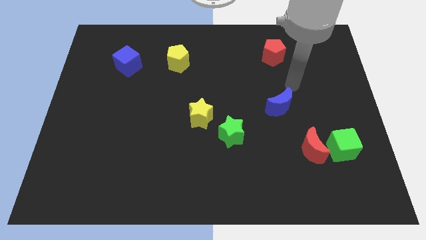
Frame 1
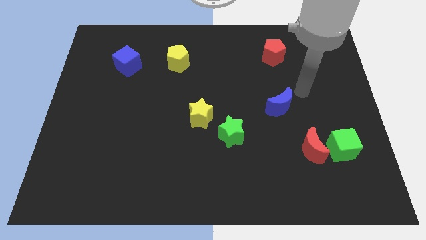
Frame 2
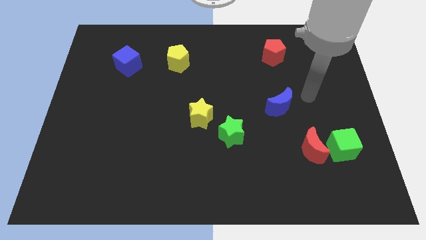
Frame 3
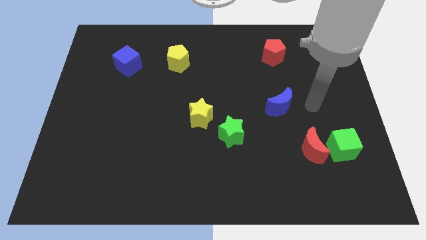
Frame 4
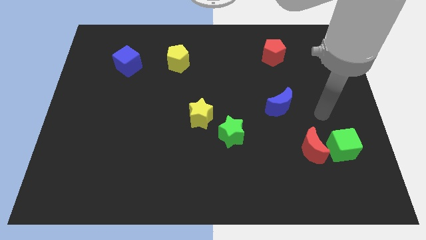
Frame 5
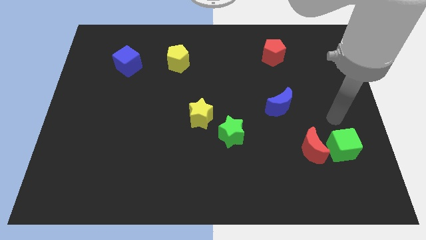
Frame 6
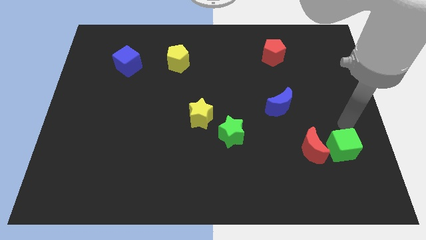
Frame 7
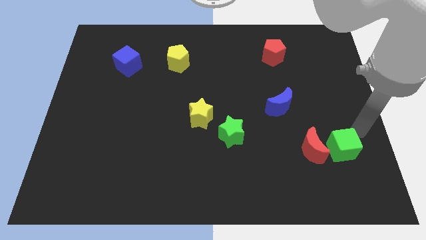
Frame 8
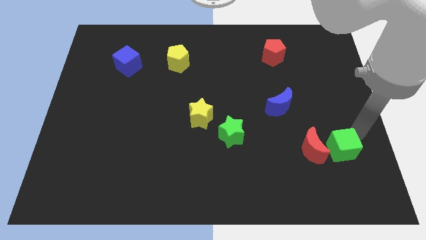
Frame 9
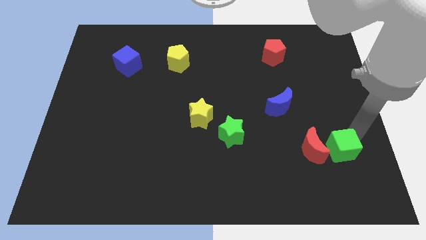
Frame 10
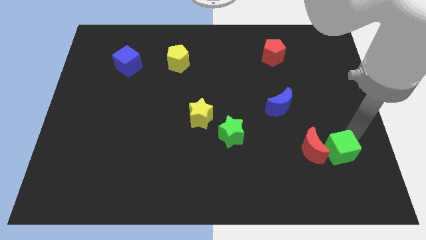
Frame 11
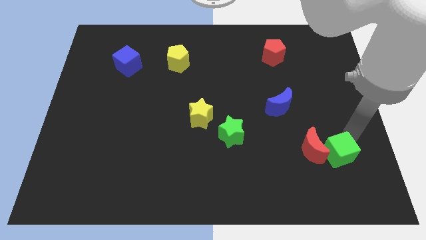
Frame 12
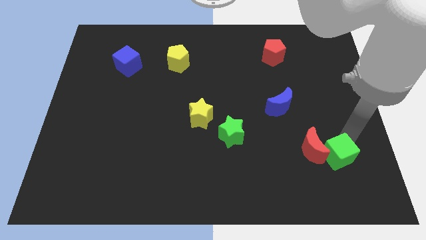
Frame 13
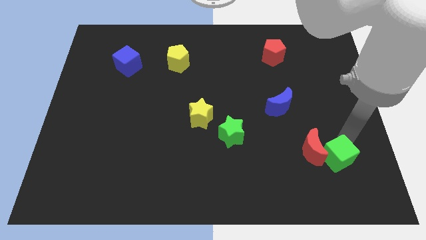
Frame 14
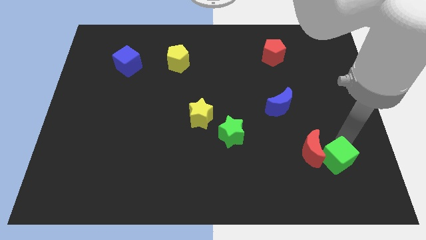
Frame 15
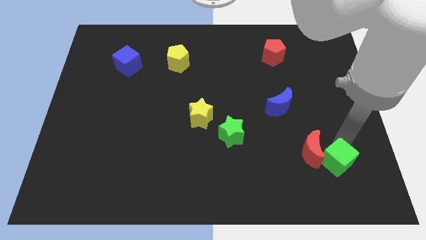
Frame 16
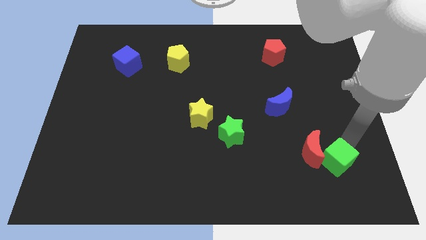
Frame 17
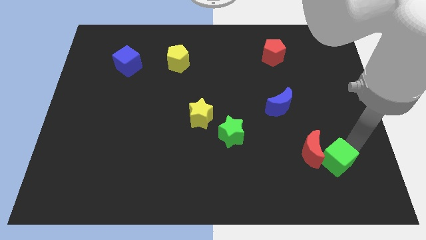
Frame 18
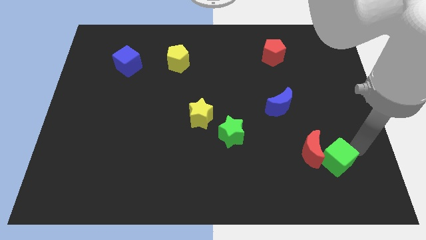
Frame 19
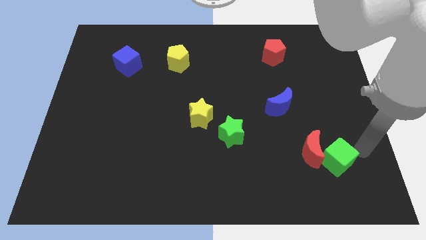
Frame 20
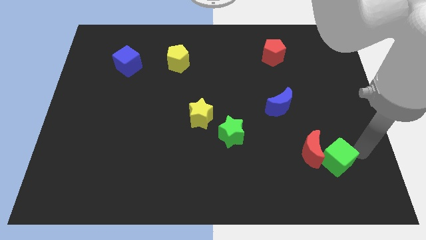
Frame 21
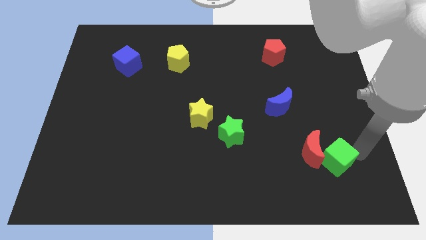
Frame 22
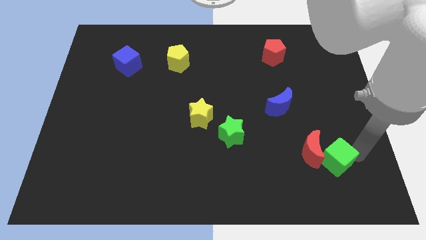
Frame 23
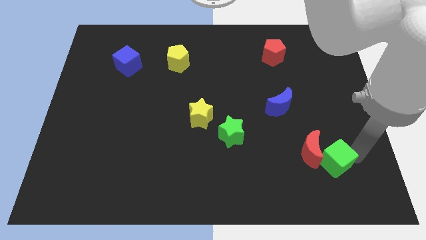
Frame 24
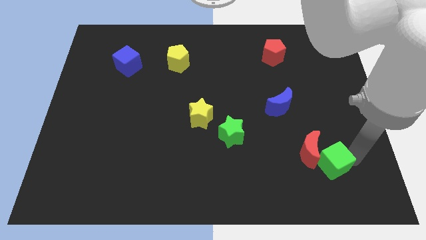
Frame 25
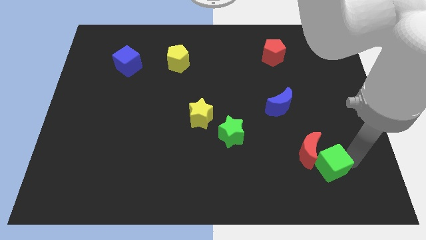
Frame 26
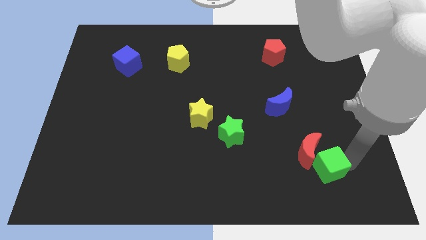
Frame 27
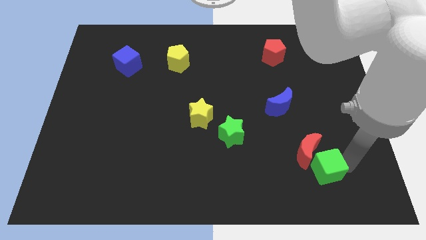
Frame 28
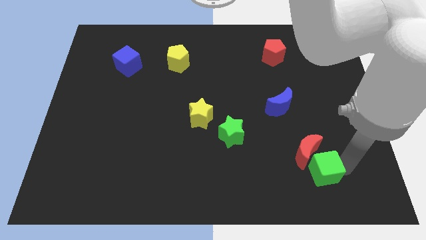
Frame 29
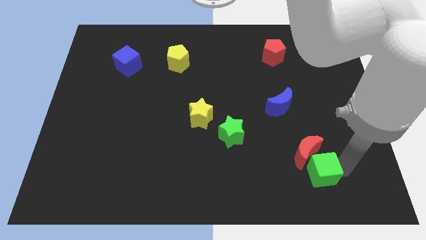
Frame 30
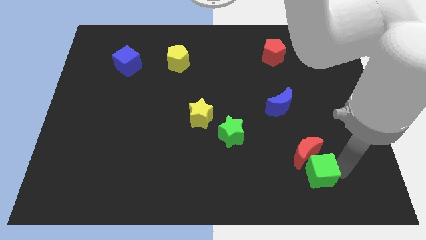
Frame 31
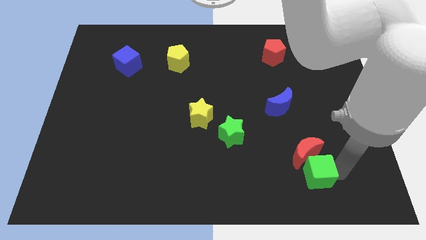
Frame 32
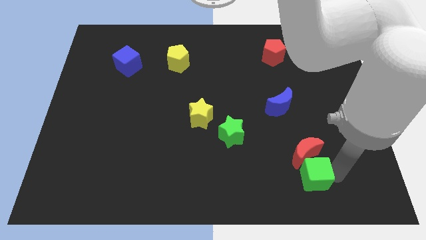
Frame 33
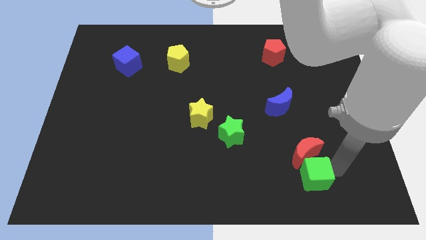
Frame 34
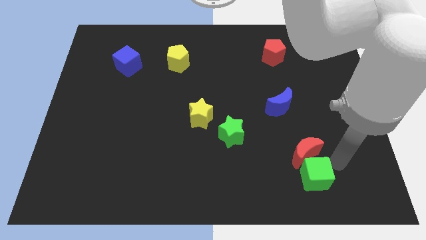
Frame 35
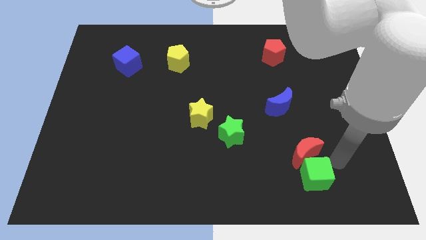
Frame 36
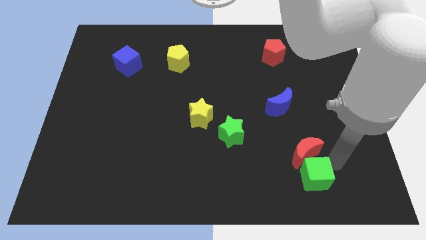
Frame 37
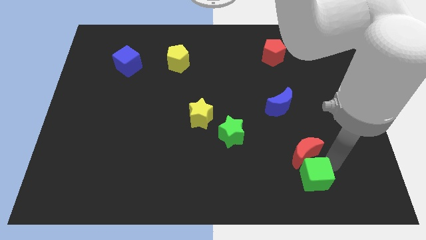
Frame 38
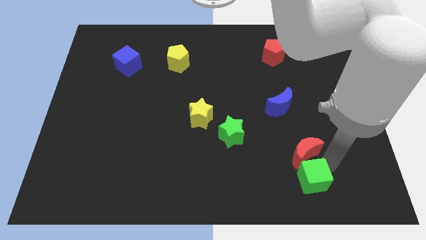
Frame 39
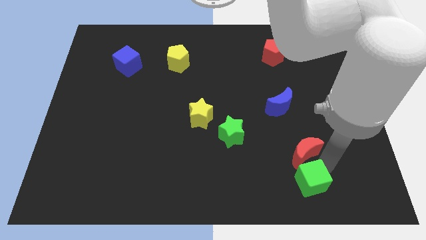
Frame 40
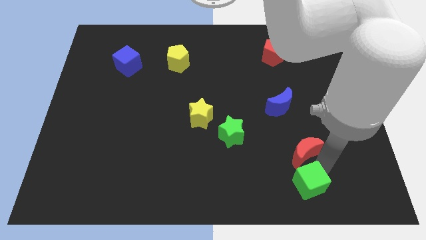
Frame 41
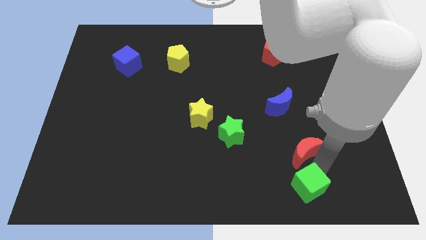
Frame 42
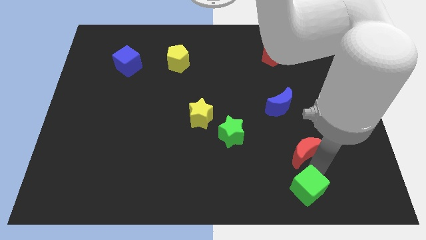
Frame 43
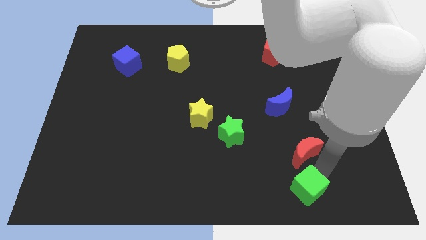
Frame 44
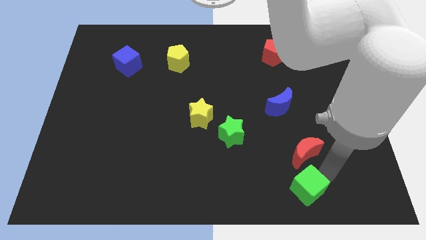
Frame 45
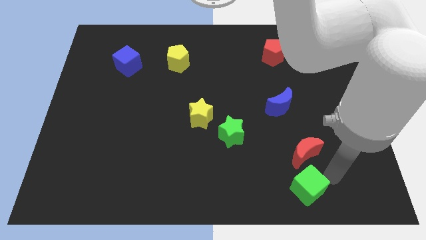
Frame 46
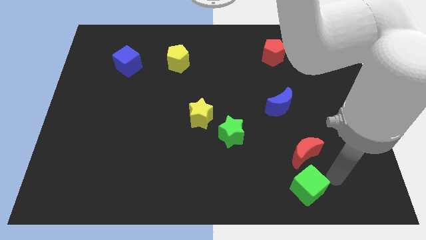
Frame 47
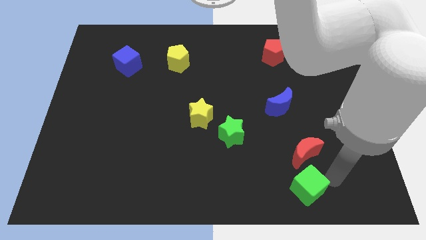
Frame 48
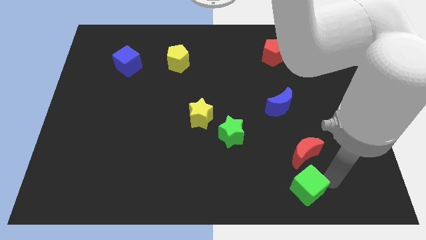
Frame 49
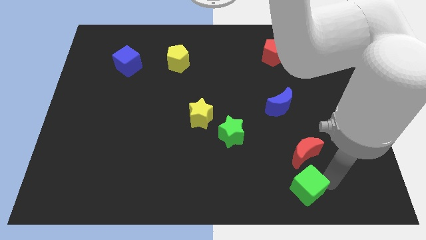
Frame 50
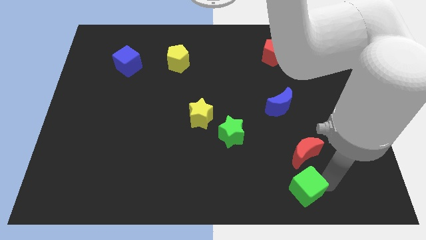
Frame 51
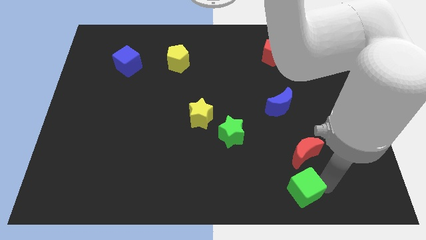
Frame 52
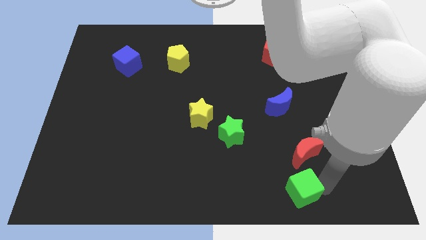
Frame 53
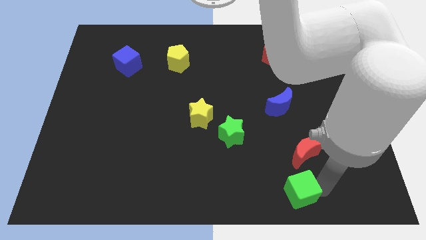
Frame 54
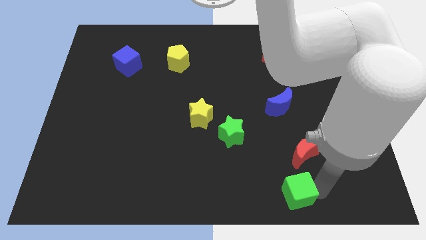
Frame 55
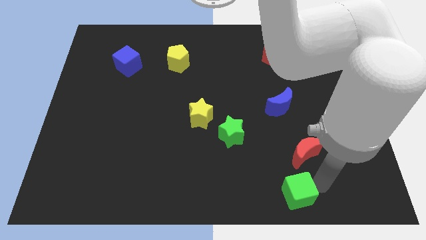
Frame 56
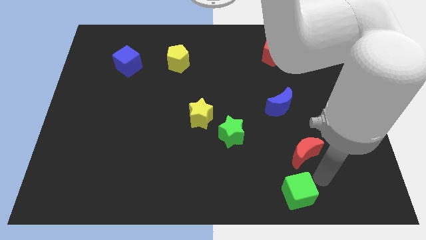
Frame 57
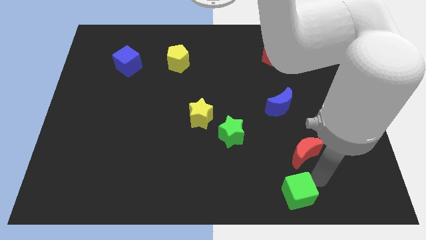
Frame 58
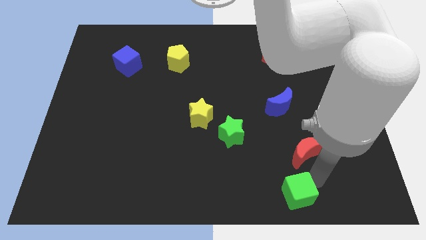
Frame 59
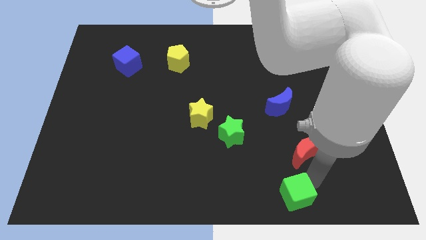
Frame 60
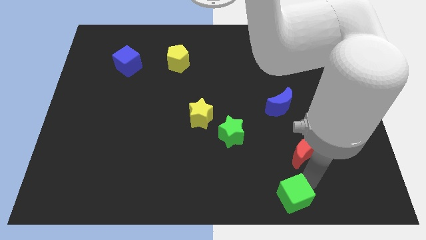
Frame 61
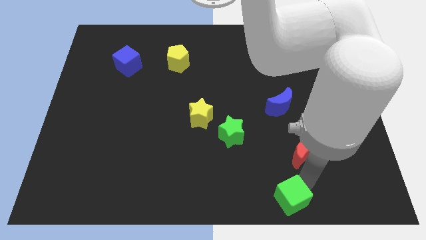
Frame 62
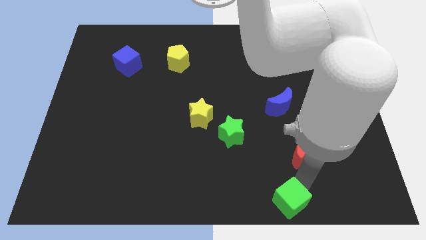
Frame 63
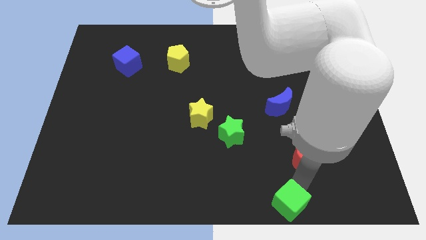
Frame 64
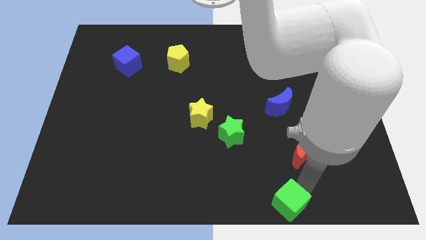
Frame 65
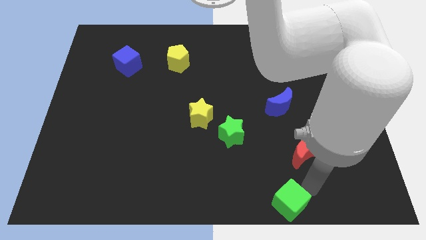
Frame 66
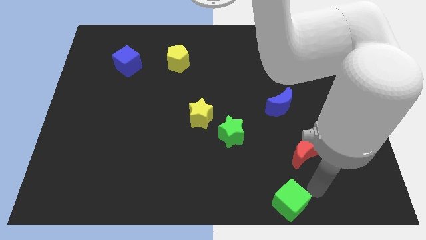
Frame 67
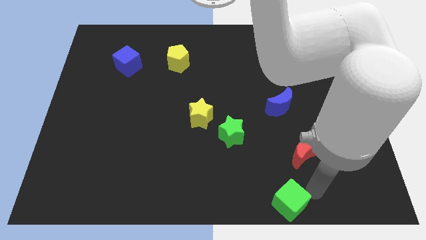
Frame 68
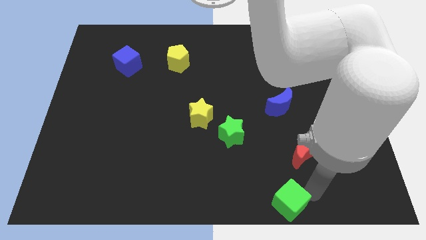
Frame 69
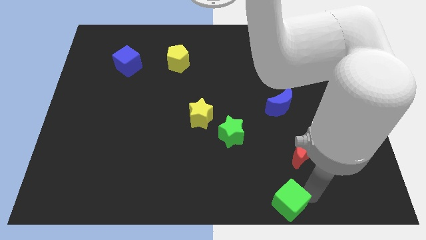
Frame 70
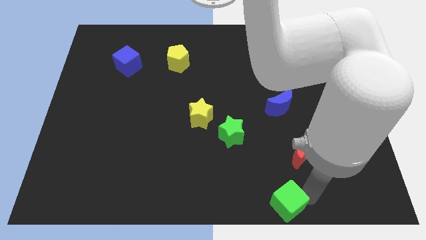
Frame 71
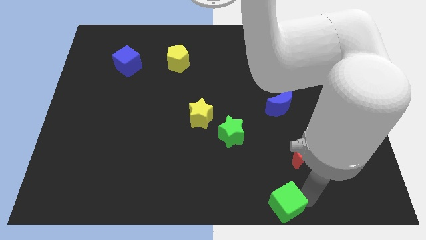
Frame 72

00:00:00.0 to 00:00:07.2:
push the green cube to the bottom side
